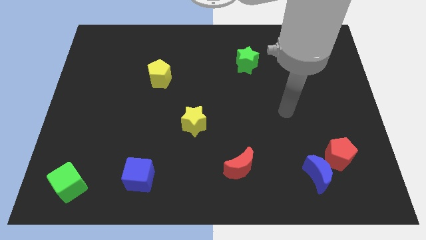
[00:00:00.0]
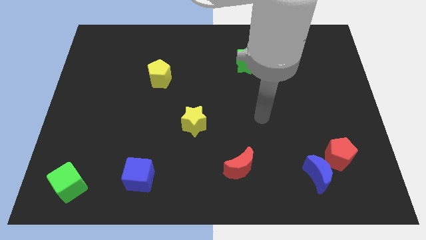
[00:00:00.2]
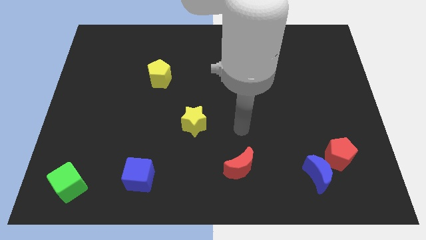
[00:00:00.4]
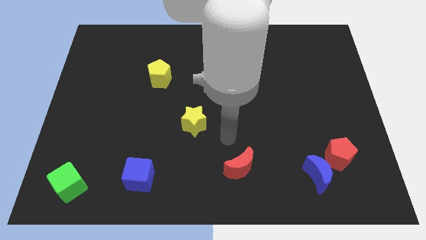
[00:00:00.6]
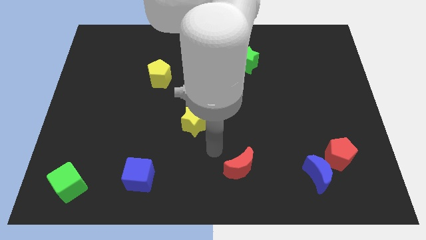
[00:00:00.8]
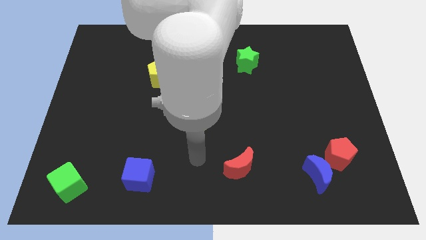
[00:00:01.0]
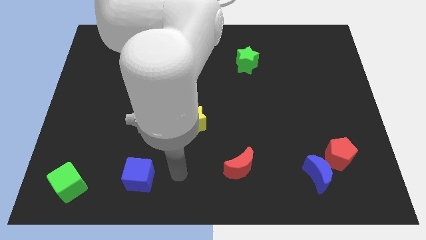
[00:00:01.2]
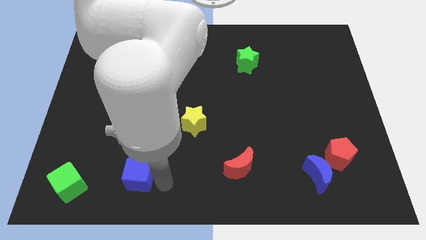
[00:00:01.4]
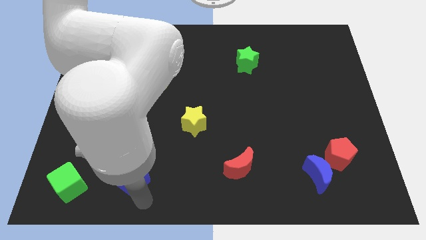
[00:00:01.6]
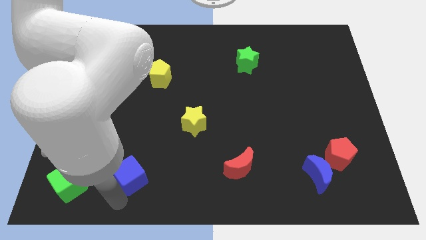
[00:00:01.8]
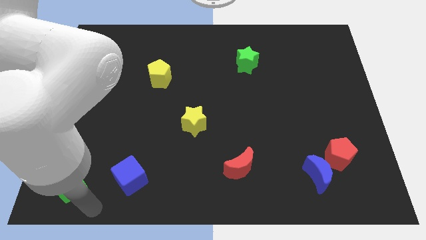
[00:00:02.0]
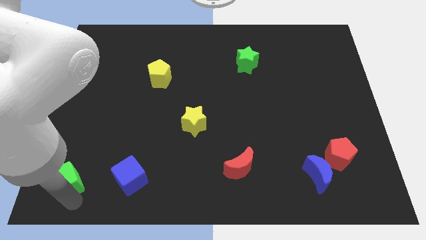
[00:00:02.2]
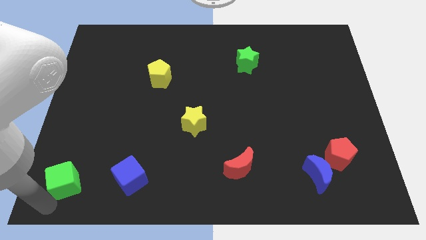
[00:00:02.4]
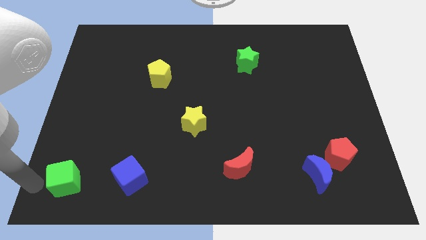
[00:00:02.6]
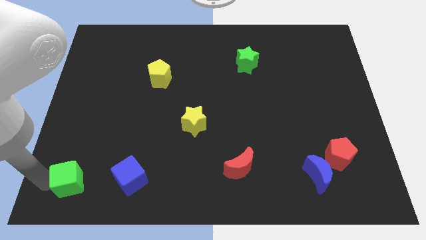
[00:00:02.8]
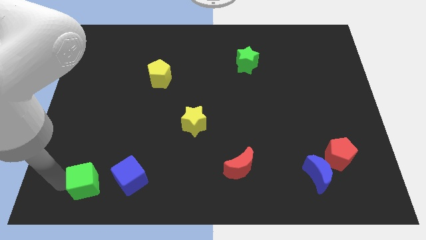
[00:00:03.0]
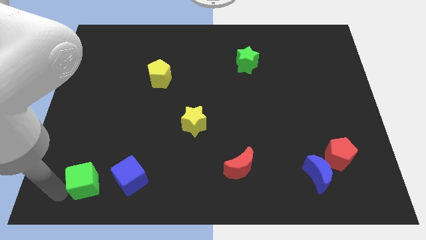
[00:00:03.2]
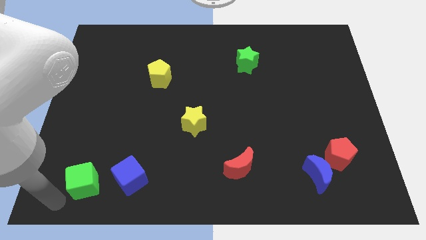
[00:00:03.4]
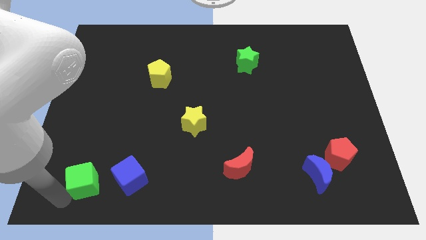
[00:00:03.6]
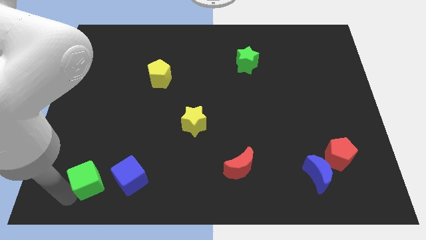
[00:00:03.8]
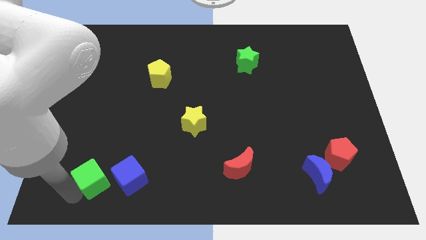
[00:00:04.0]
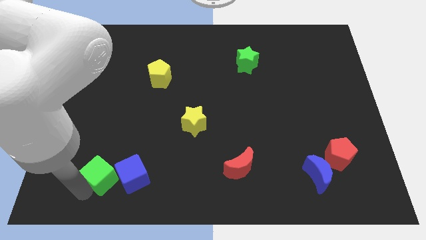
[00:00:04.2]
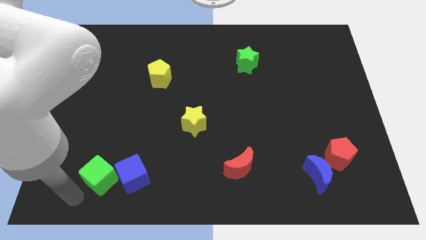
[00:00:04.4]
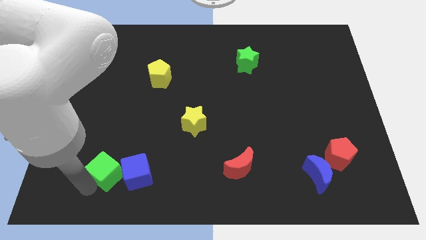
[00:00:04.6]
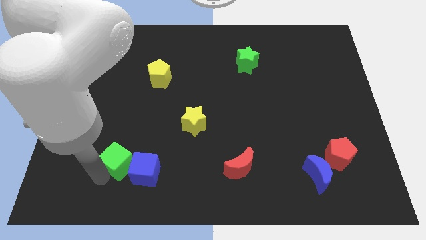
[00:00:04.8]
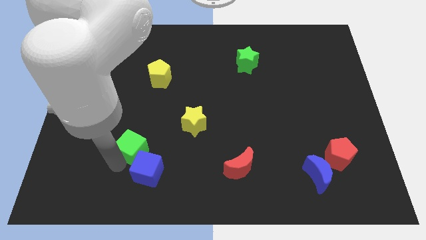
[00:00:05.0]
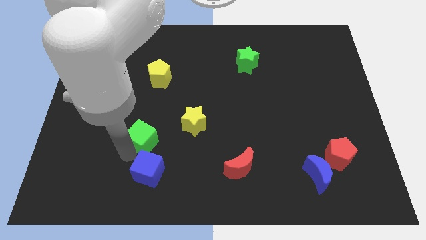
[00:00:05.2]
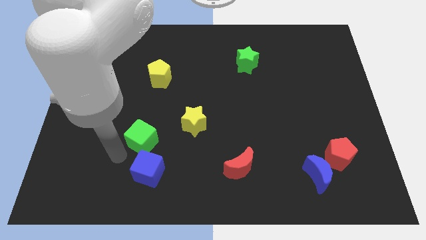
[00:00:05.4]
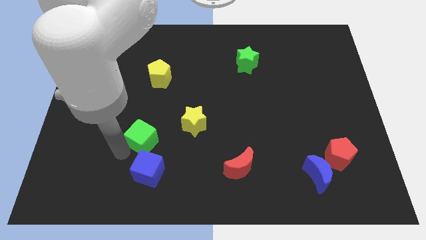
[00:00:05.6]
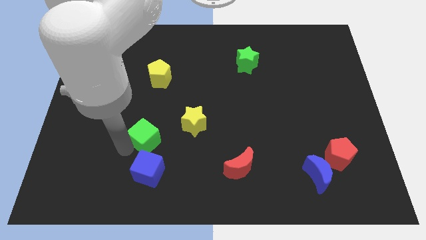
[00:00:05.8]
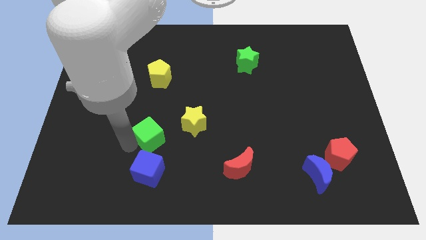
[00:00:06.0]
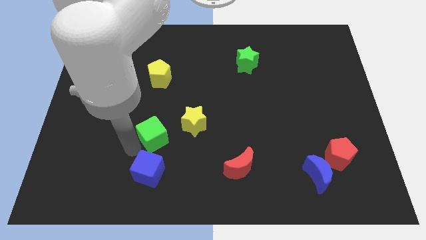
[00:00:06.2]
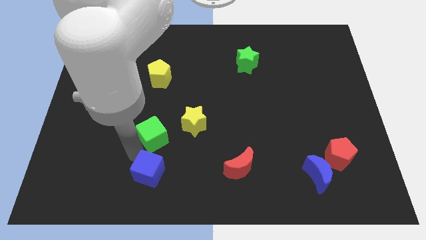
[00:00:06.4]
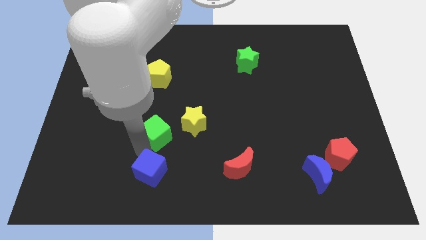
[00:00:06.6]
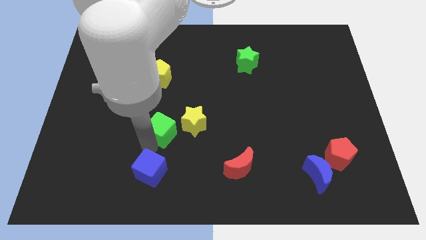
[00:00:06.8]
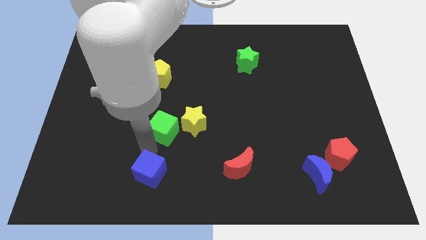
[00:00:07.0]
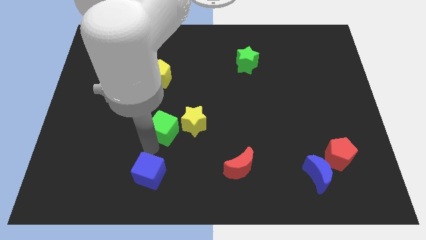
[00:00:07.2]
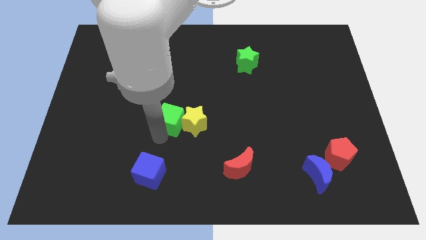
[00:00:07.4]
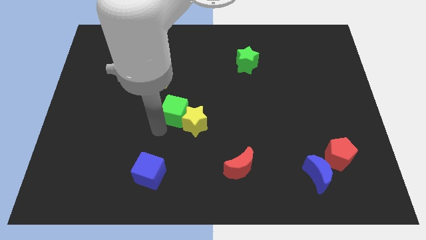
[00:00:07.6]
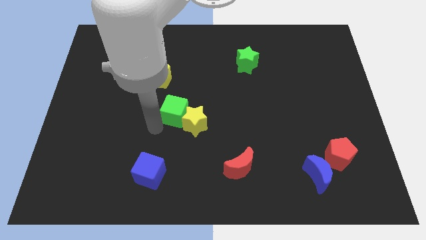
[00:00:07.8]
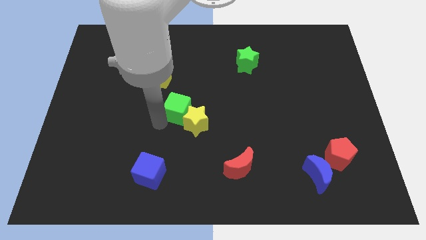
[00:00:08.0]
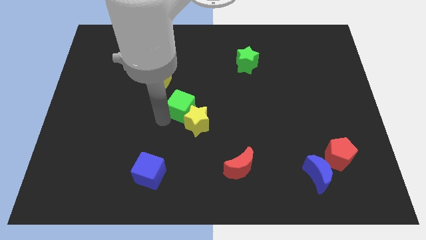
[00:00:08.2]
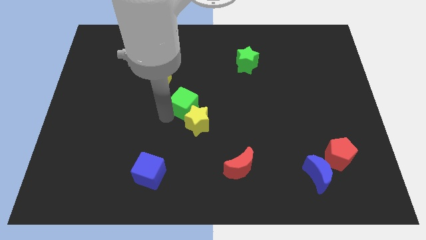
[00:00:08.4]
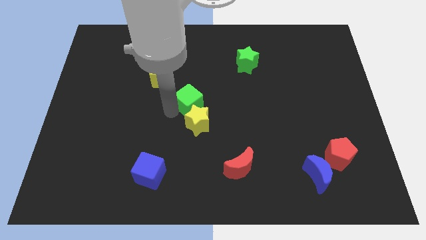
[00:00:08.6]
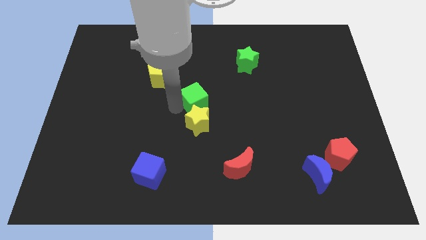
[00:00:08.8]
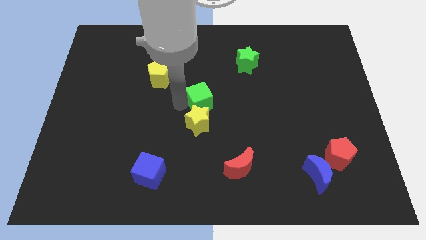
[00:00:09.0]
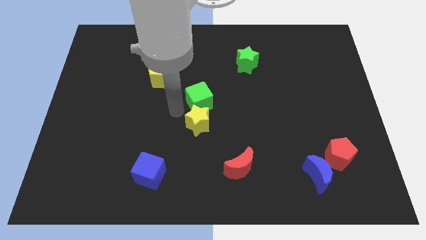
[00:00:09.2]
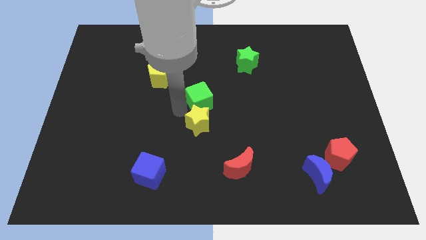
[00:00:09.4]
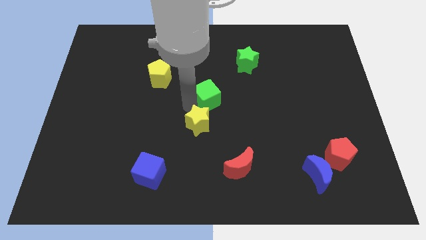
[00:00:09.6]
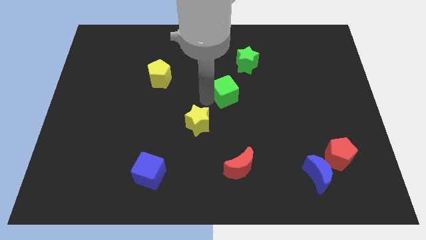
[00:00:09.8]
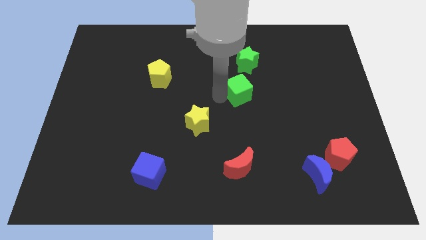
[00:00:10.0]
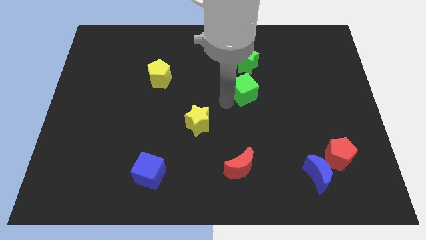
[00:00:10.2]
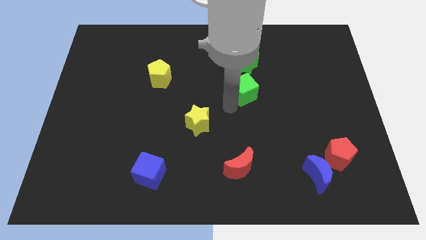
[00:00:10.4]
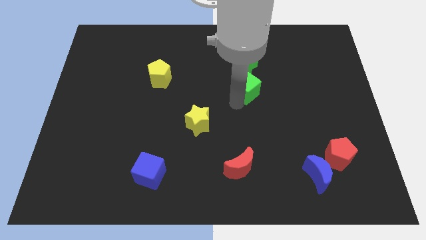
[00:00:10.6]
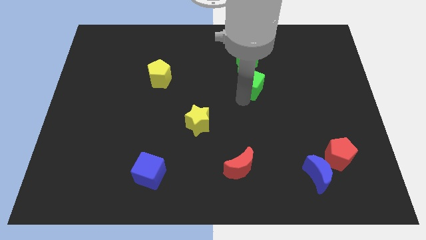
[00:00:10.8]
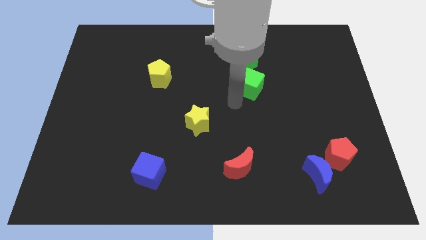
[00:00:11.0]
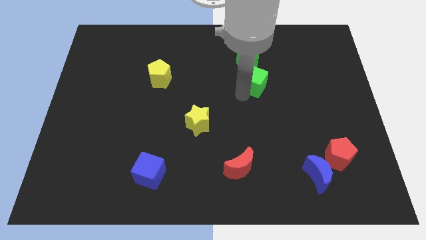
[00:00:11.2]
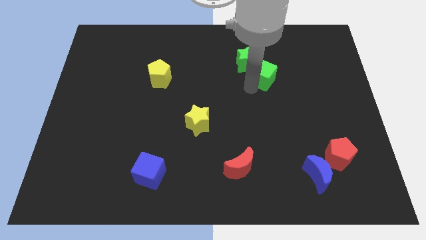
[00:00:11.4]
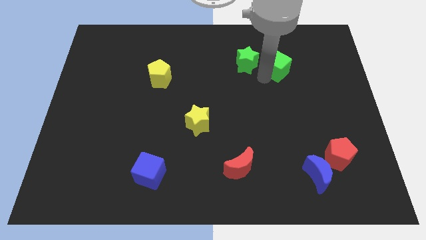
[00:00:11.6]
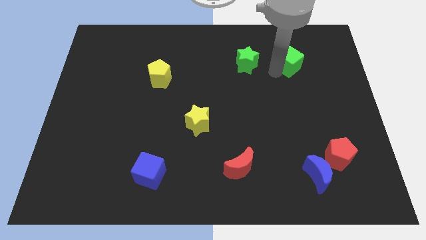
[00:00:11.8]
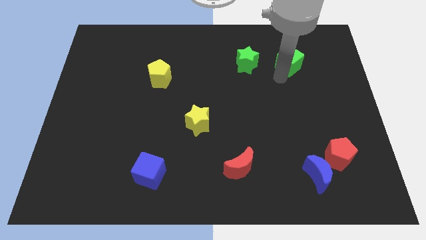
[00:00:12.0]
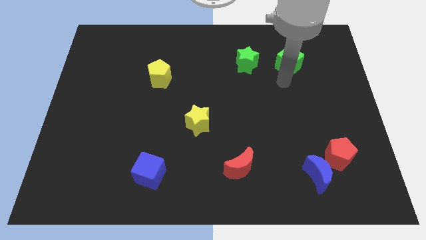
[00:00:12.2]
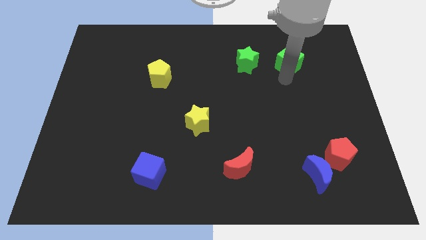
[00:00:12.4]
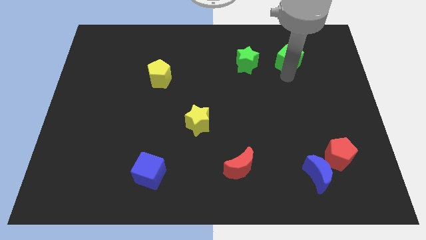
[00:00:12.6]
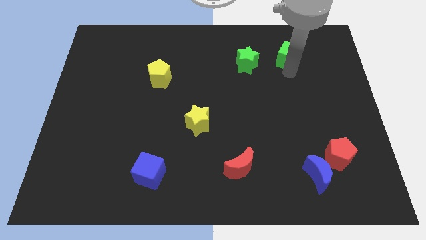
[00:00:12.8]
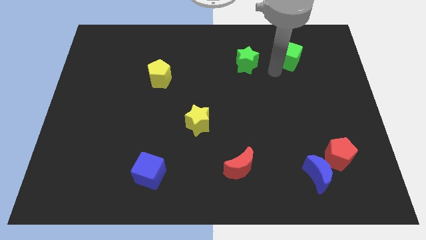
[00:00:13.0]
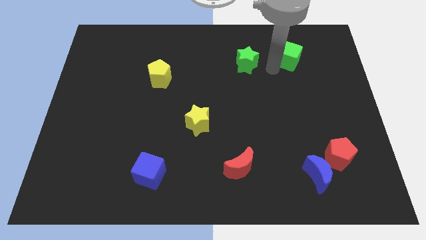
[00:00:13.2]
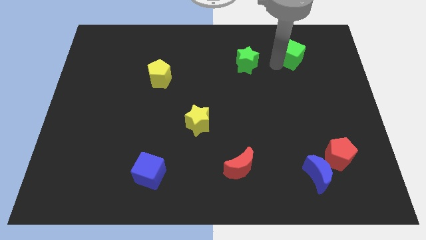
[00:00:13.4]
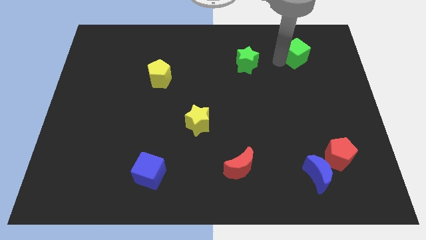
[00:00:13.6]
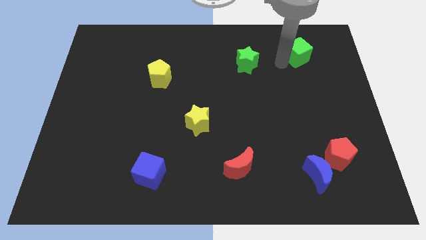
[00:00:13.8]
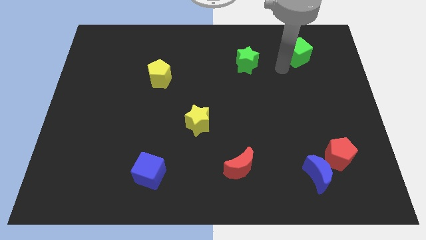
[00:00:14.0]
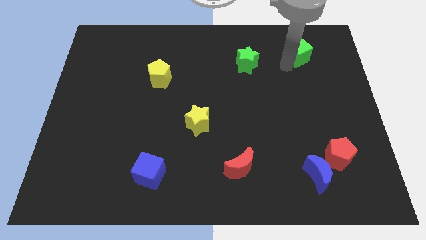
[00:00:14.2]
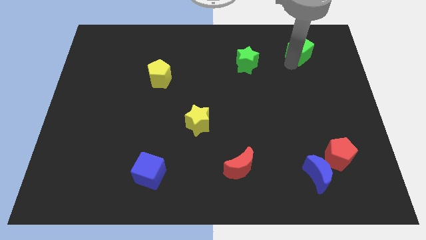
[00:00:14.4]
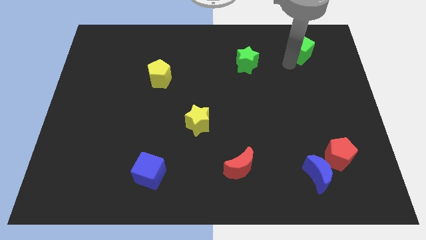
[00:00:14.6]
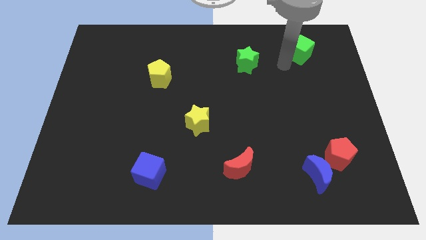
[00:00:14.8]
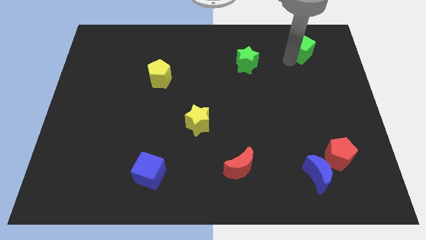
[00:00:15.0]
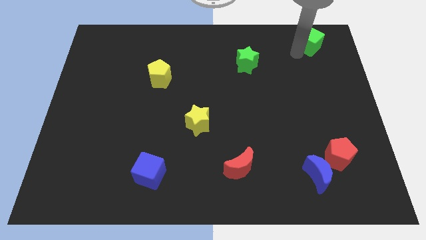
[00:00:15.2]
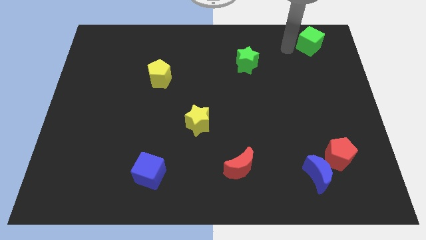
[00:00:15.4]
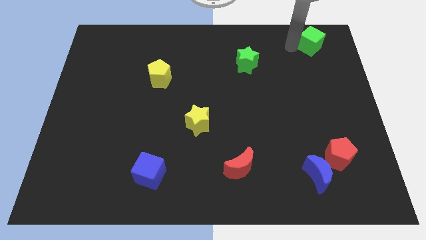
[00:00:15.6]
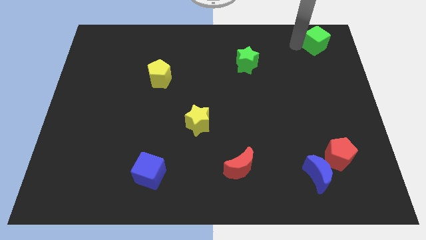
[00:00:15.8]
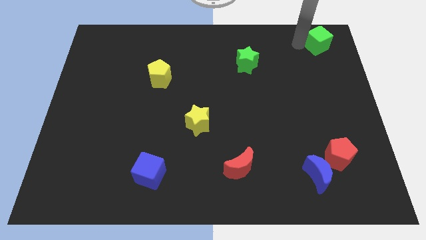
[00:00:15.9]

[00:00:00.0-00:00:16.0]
push the green cube to the top right corner

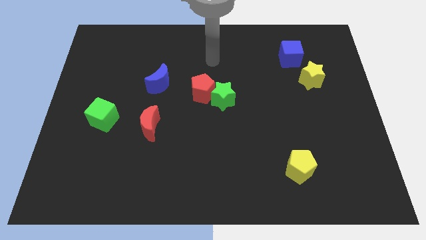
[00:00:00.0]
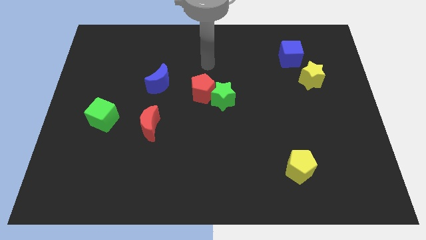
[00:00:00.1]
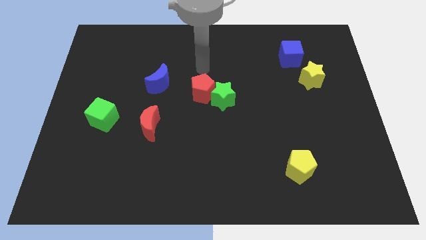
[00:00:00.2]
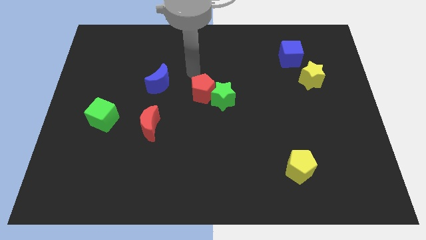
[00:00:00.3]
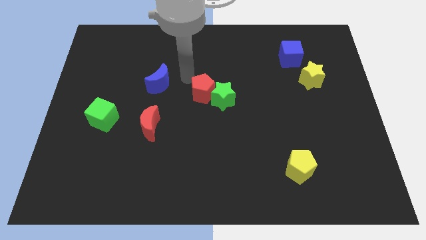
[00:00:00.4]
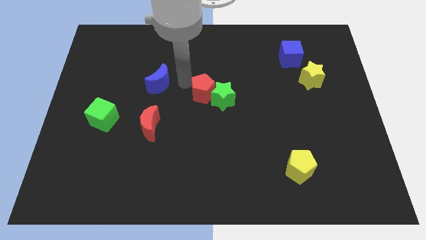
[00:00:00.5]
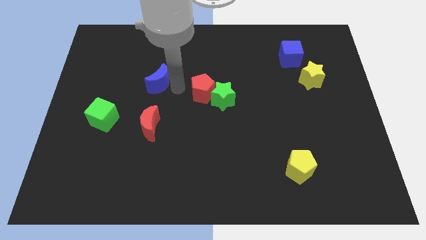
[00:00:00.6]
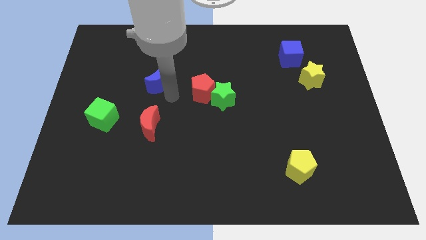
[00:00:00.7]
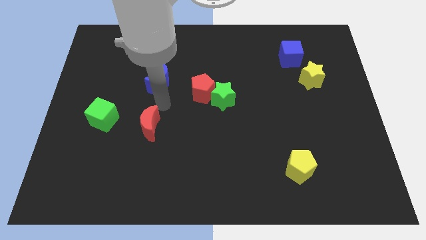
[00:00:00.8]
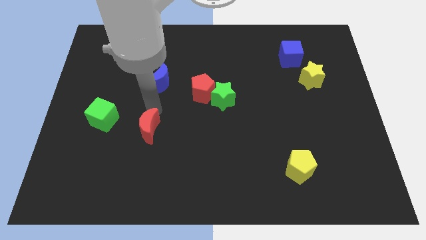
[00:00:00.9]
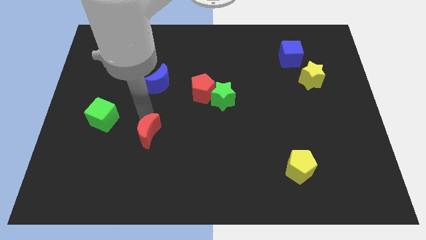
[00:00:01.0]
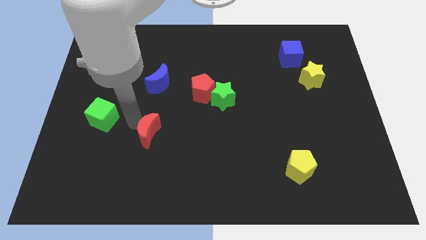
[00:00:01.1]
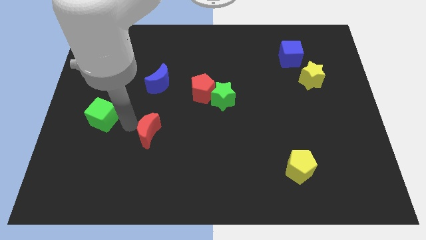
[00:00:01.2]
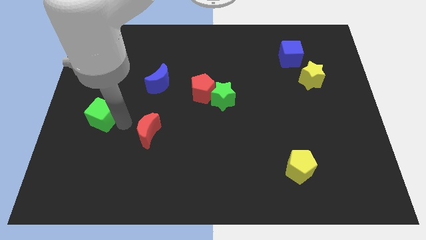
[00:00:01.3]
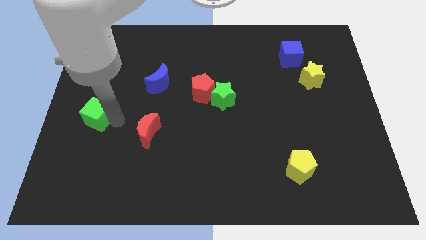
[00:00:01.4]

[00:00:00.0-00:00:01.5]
put the green cube to the left side of the board
